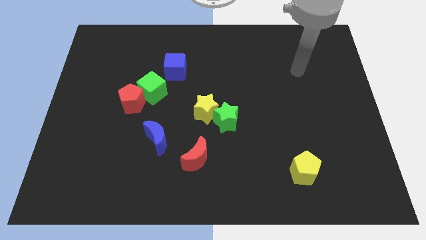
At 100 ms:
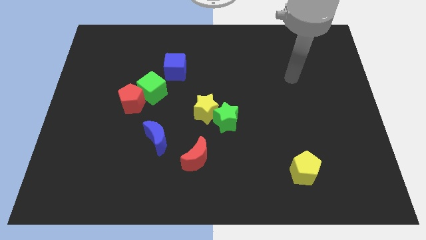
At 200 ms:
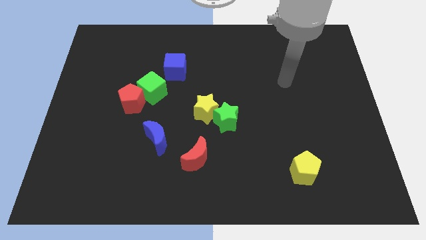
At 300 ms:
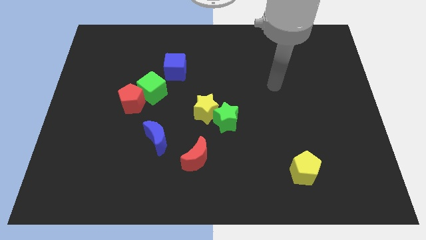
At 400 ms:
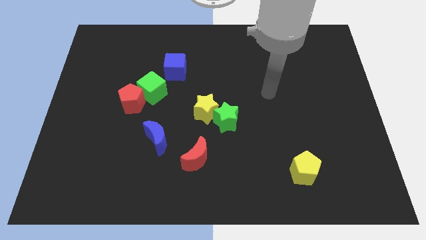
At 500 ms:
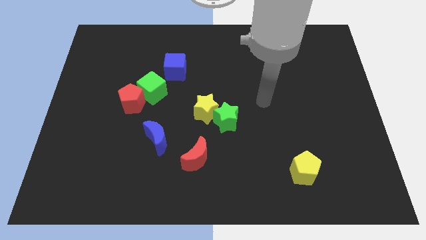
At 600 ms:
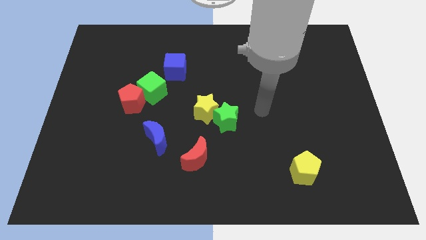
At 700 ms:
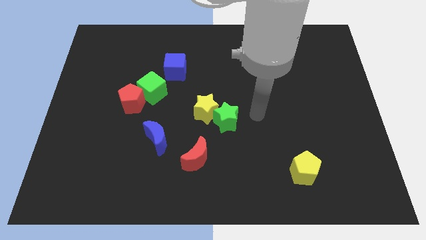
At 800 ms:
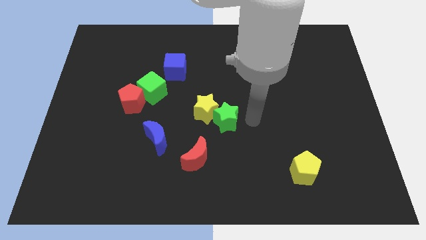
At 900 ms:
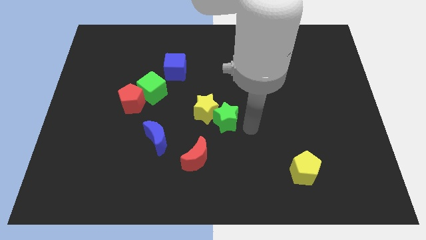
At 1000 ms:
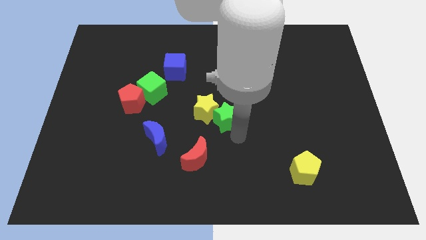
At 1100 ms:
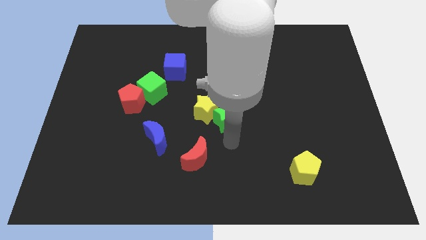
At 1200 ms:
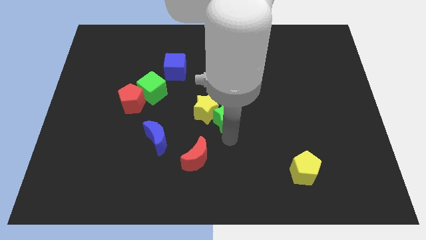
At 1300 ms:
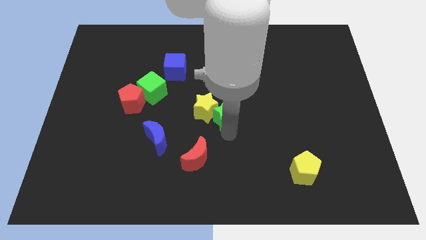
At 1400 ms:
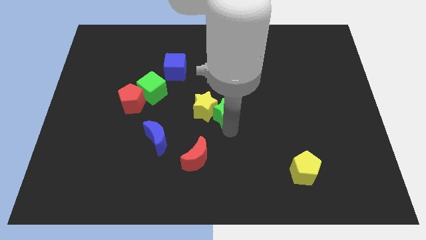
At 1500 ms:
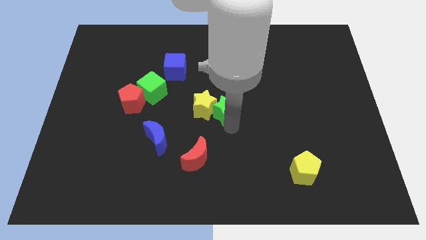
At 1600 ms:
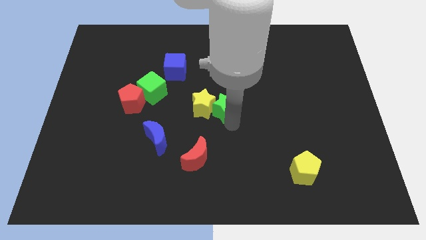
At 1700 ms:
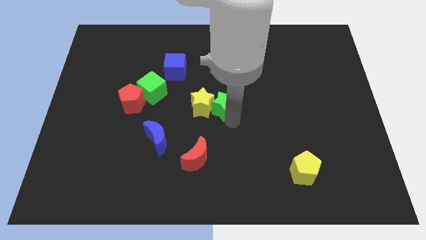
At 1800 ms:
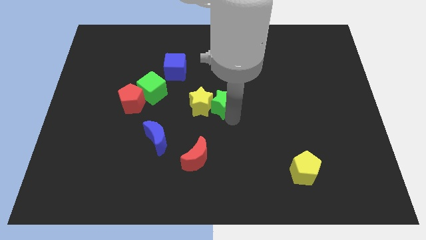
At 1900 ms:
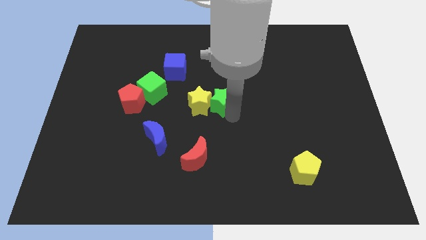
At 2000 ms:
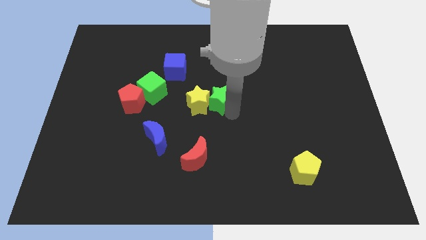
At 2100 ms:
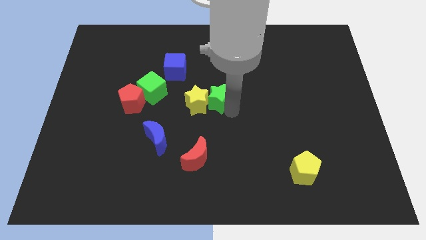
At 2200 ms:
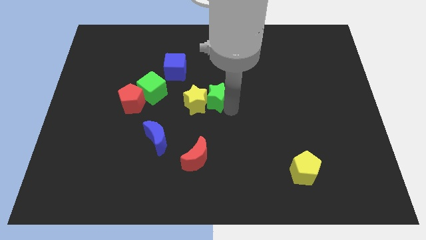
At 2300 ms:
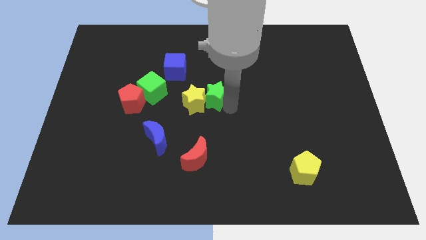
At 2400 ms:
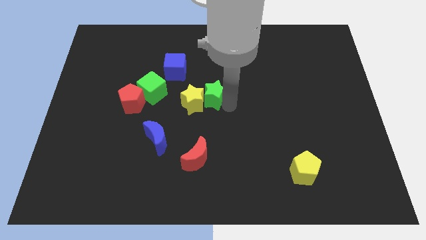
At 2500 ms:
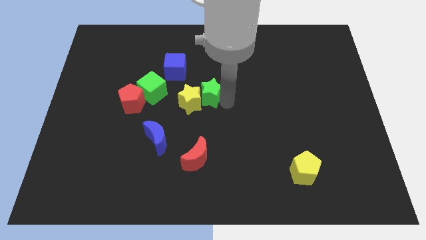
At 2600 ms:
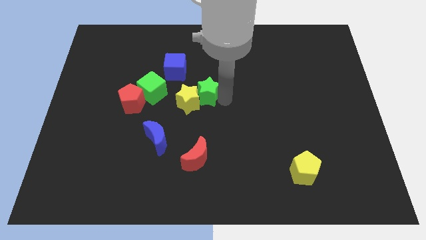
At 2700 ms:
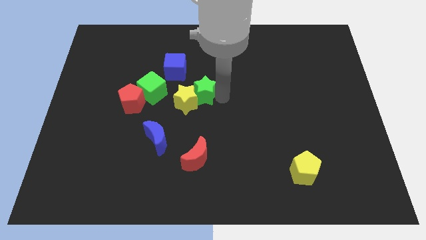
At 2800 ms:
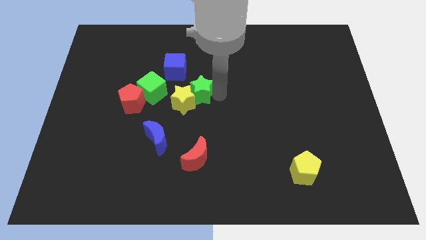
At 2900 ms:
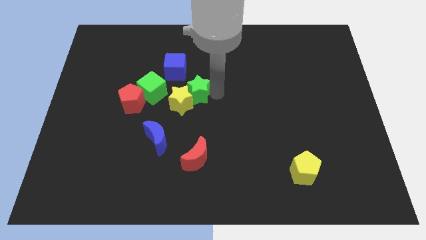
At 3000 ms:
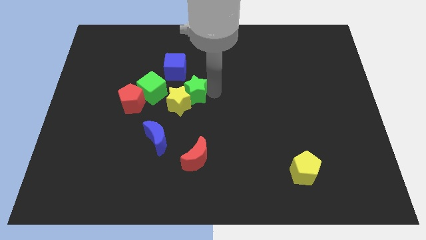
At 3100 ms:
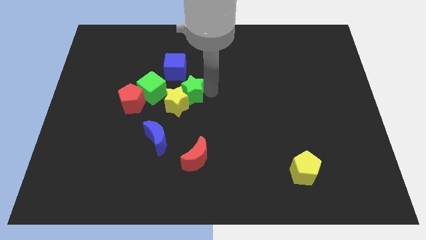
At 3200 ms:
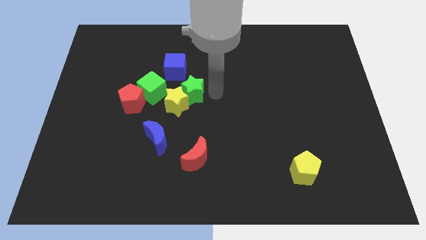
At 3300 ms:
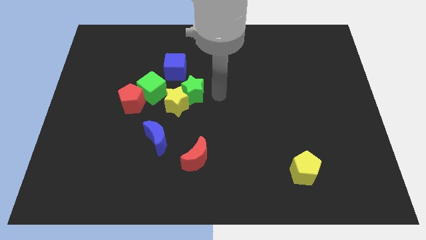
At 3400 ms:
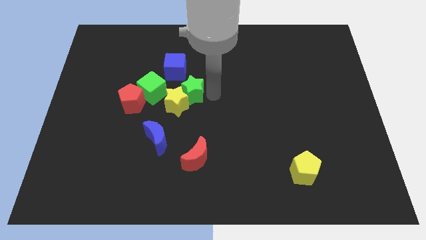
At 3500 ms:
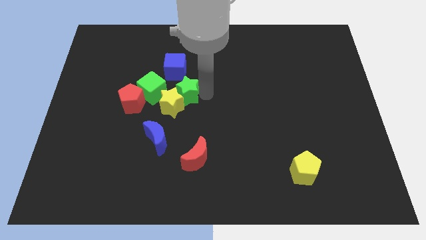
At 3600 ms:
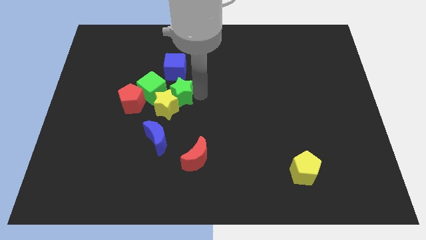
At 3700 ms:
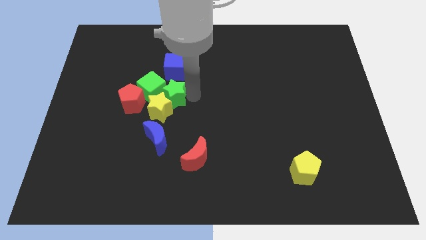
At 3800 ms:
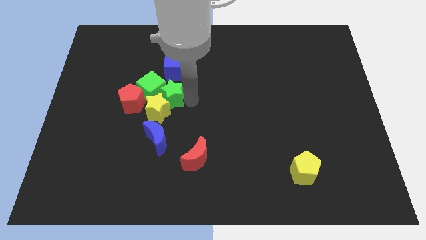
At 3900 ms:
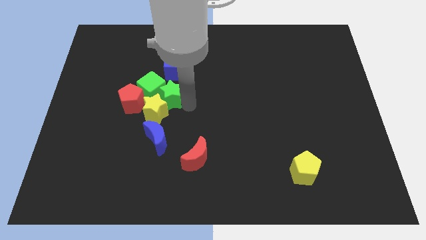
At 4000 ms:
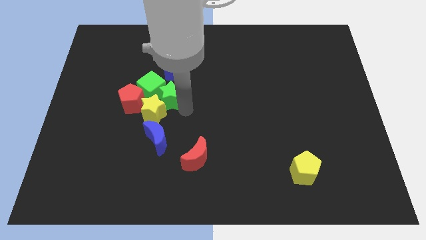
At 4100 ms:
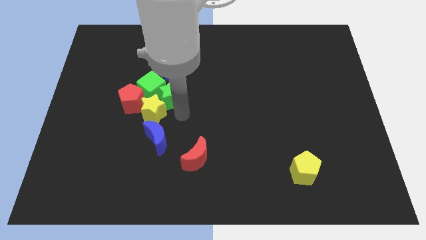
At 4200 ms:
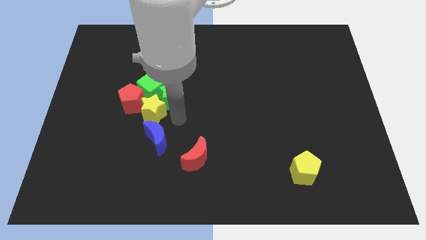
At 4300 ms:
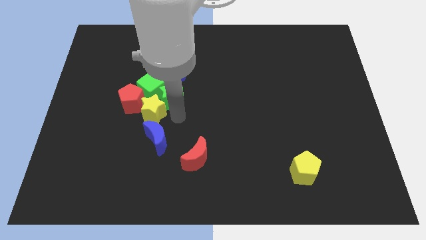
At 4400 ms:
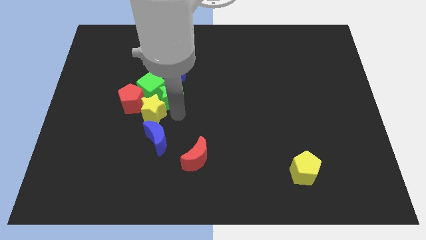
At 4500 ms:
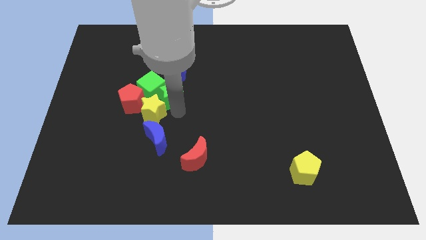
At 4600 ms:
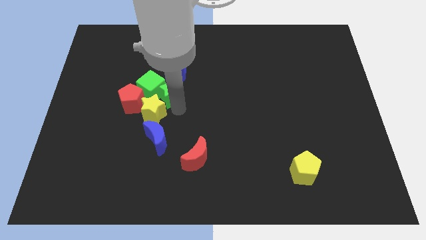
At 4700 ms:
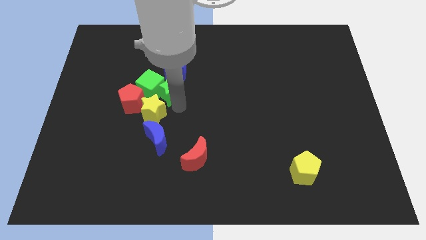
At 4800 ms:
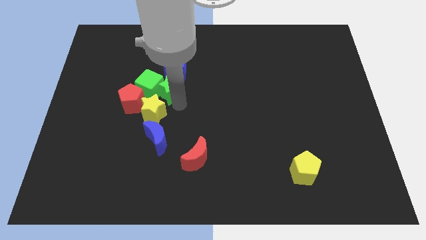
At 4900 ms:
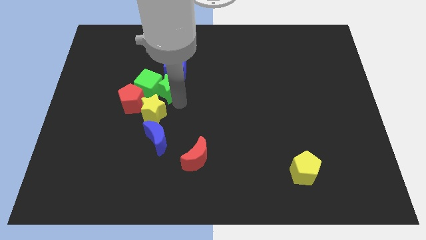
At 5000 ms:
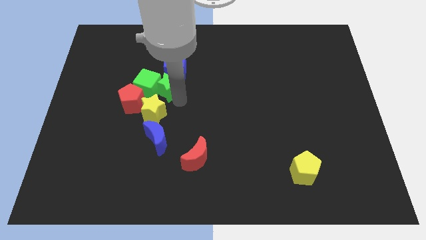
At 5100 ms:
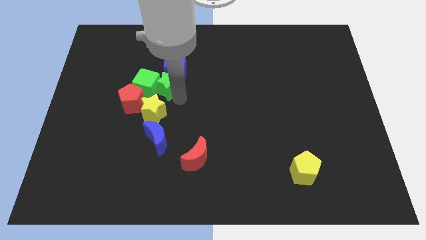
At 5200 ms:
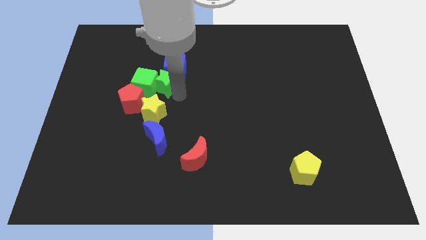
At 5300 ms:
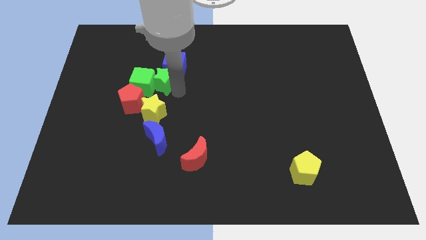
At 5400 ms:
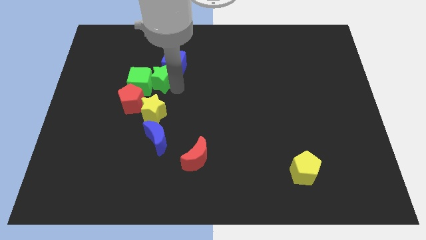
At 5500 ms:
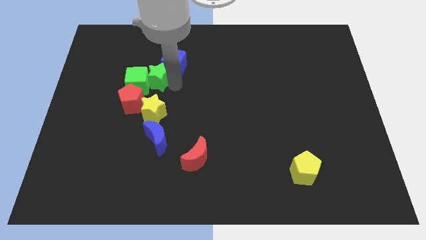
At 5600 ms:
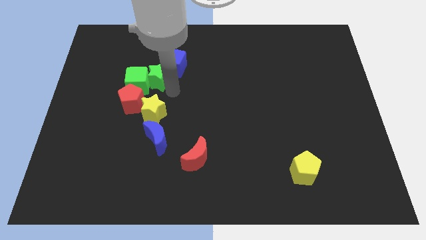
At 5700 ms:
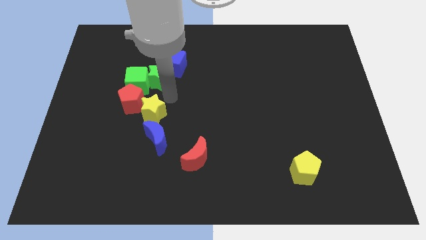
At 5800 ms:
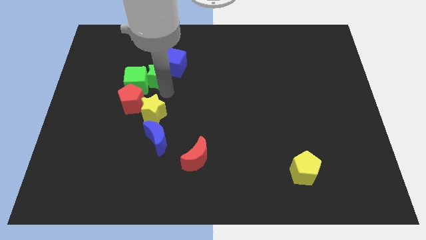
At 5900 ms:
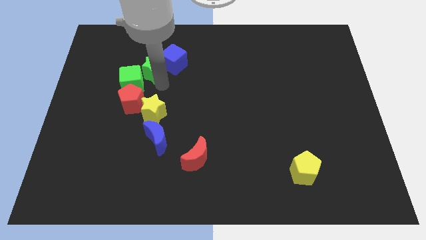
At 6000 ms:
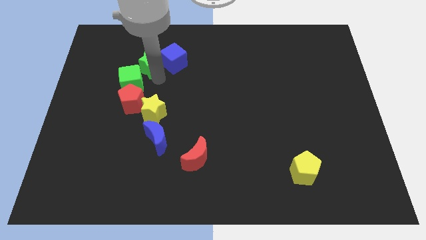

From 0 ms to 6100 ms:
push the green star to the top side of the green cube

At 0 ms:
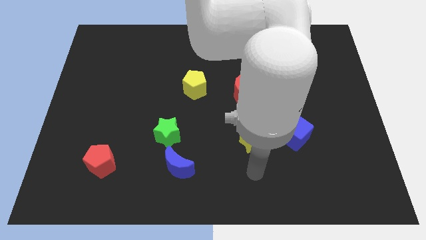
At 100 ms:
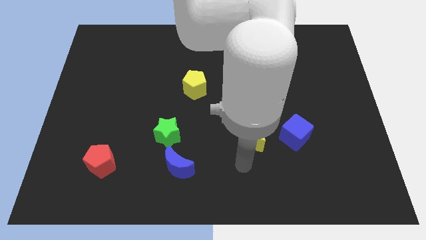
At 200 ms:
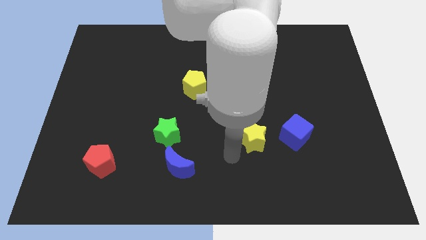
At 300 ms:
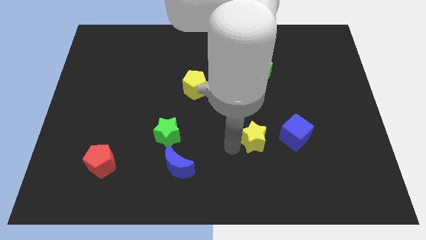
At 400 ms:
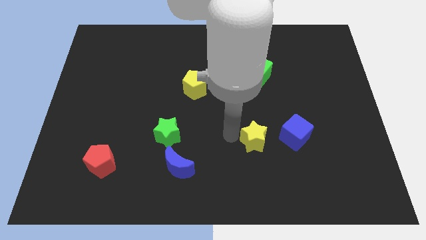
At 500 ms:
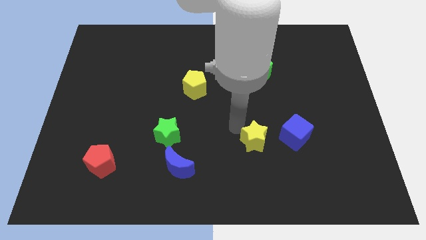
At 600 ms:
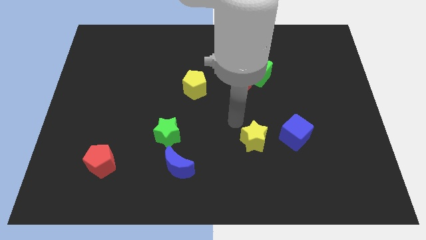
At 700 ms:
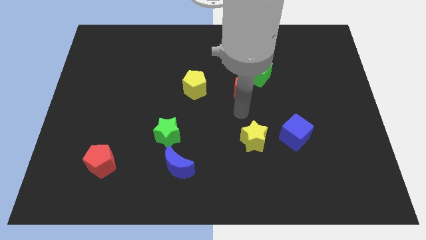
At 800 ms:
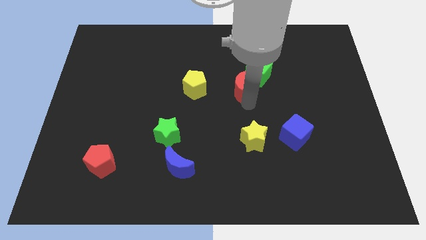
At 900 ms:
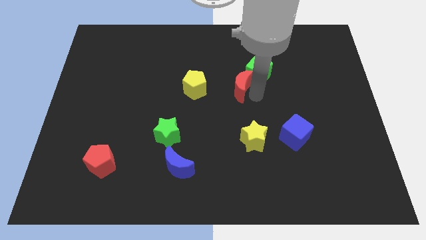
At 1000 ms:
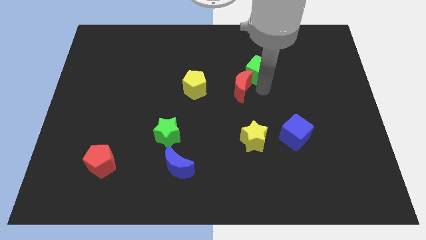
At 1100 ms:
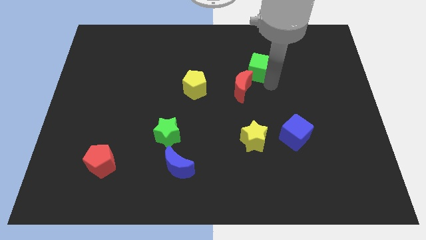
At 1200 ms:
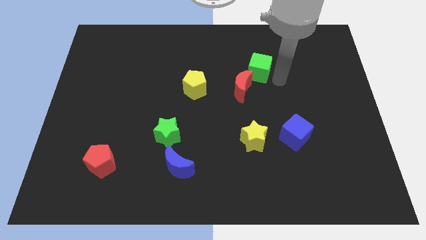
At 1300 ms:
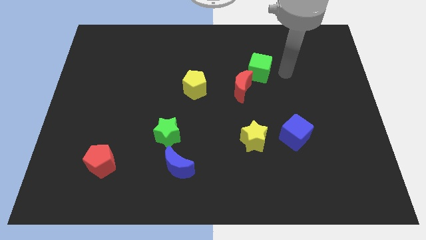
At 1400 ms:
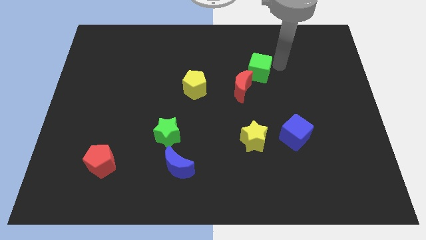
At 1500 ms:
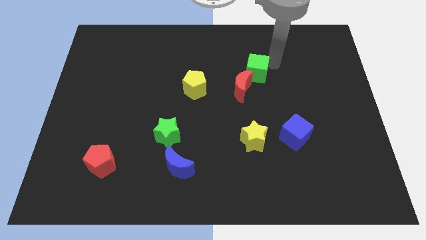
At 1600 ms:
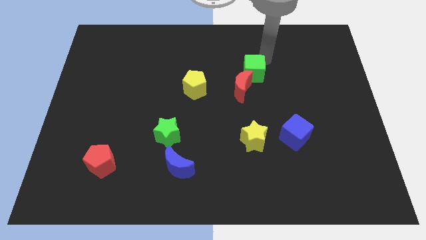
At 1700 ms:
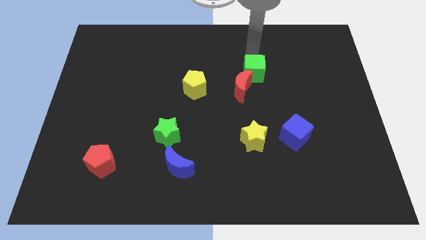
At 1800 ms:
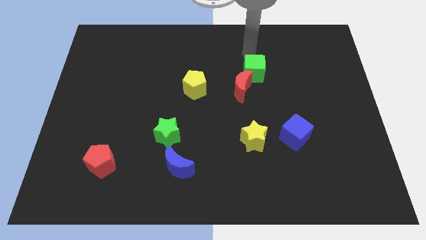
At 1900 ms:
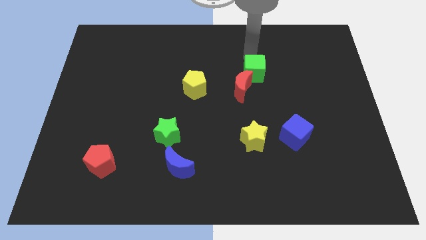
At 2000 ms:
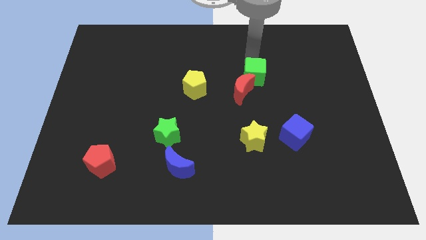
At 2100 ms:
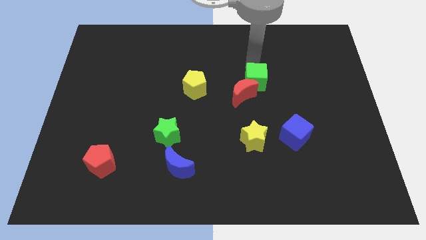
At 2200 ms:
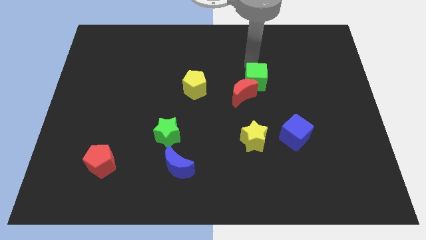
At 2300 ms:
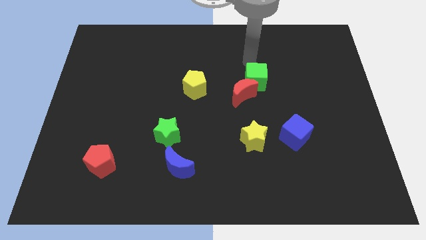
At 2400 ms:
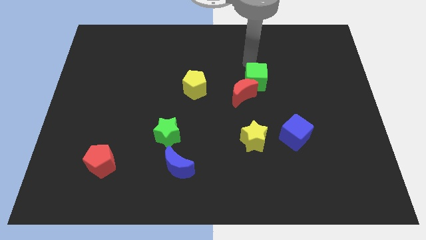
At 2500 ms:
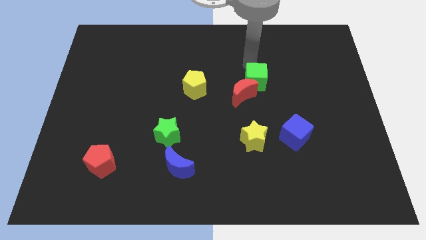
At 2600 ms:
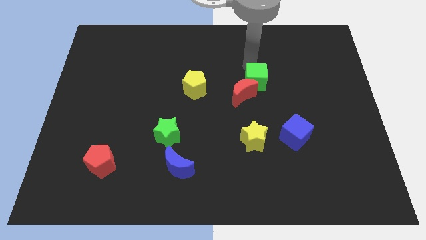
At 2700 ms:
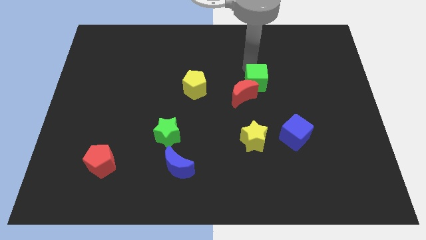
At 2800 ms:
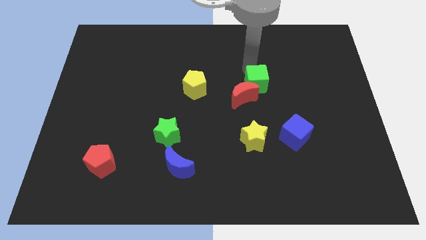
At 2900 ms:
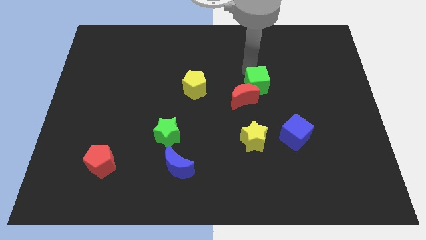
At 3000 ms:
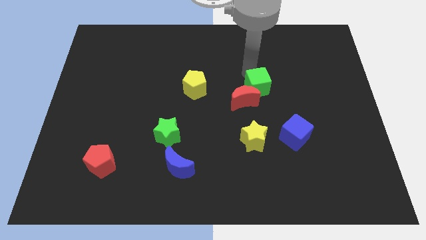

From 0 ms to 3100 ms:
slide the green cube to the top side of the yellow star
